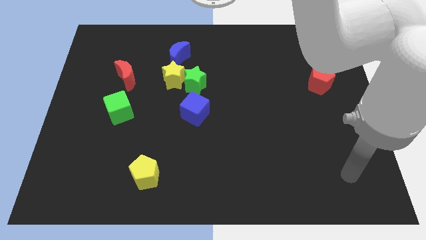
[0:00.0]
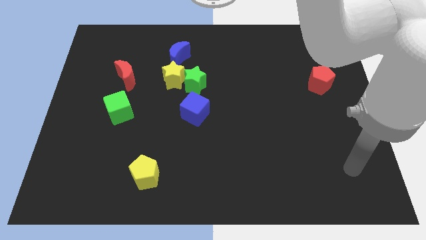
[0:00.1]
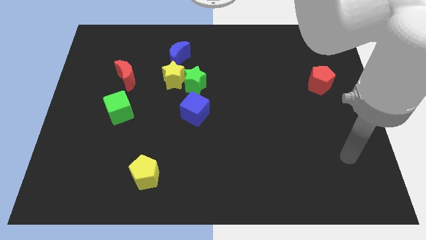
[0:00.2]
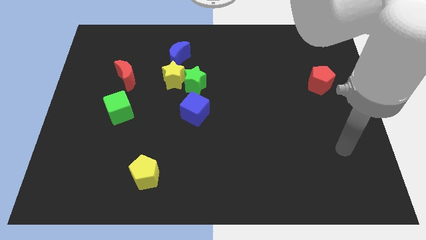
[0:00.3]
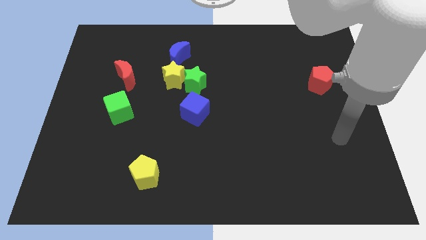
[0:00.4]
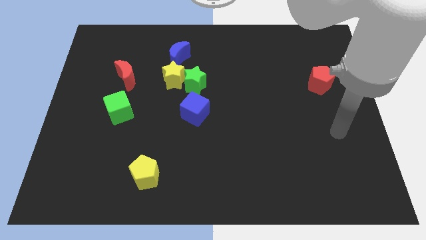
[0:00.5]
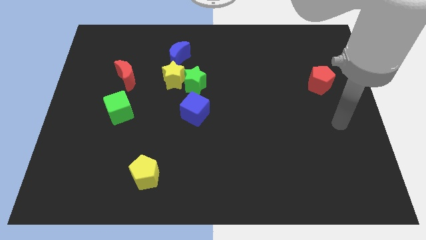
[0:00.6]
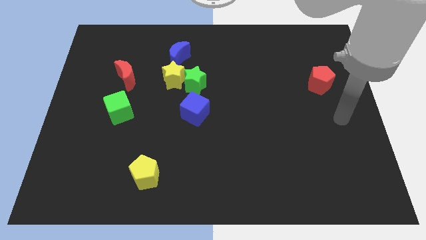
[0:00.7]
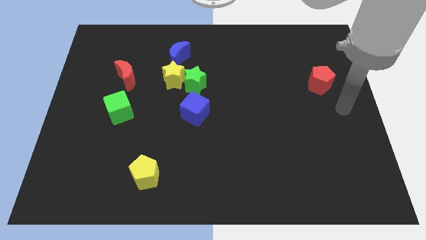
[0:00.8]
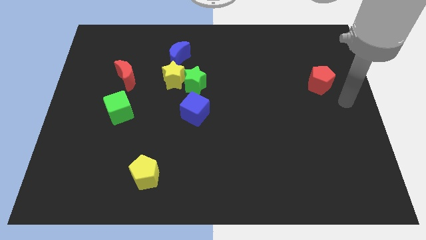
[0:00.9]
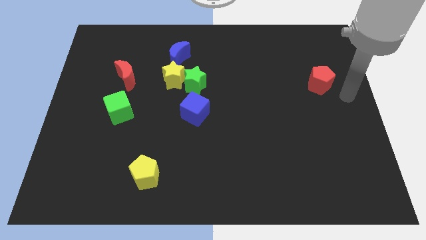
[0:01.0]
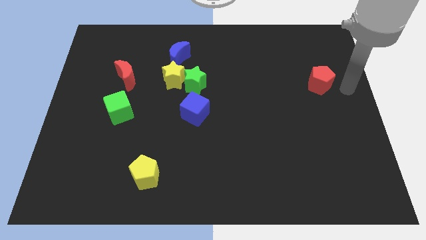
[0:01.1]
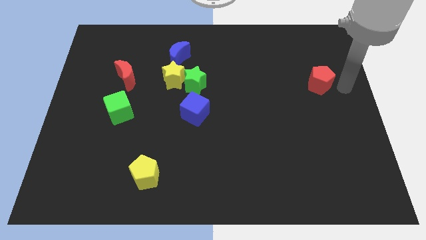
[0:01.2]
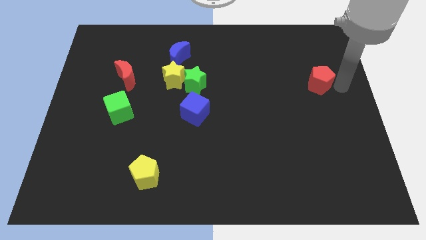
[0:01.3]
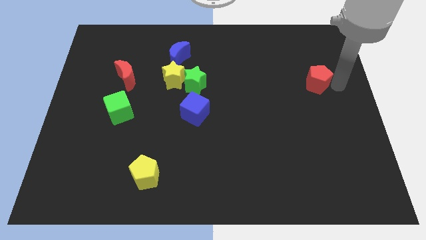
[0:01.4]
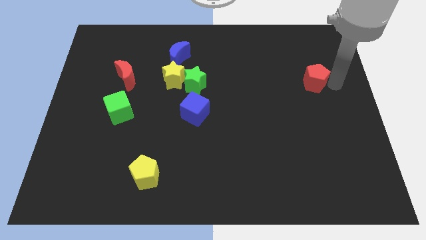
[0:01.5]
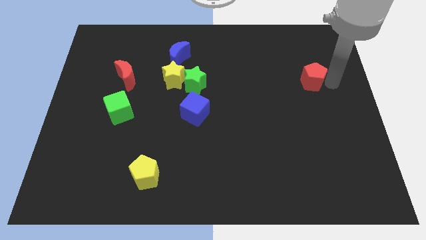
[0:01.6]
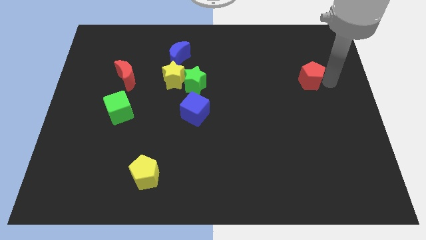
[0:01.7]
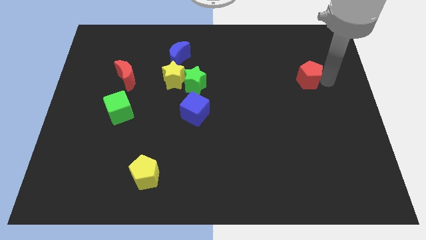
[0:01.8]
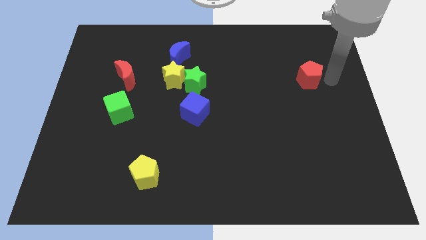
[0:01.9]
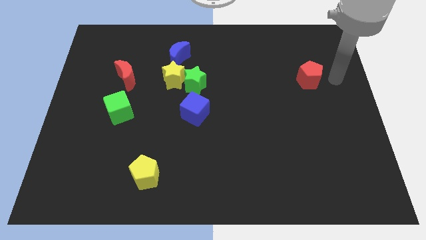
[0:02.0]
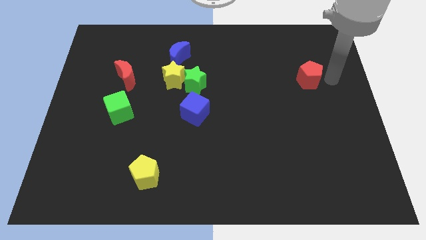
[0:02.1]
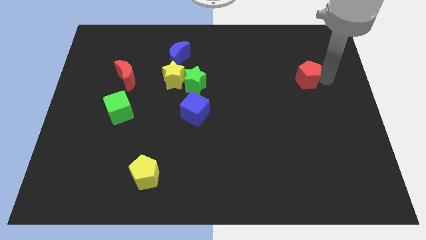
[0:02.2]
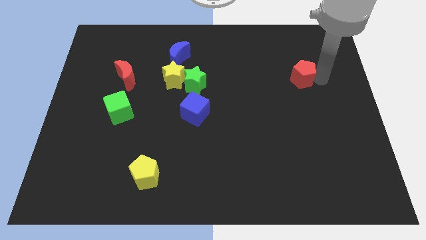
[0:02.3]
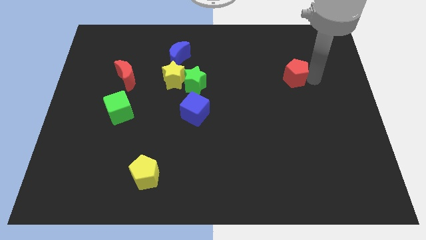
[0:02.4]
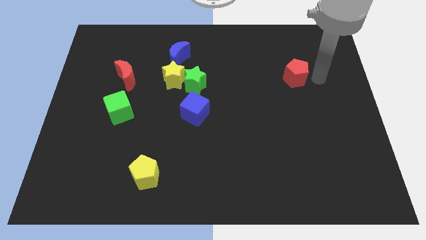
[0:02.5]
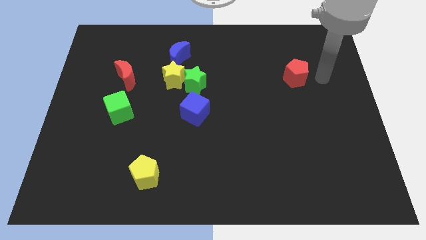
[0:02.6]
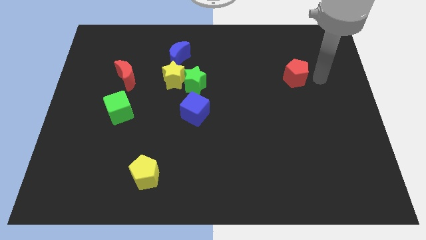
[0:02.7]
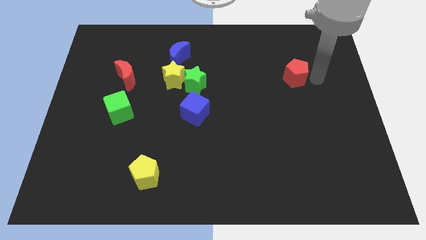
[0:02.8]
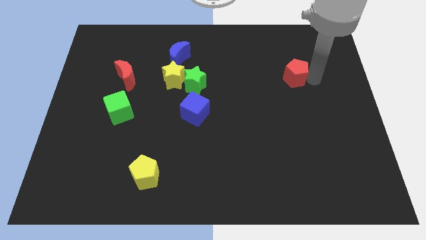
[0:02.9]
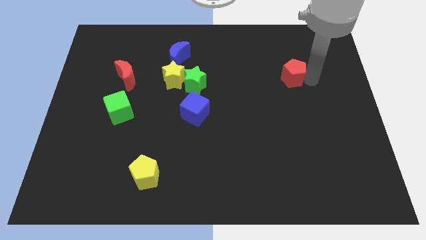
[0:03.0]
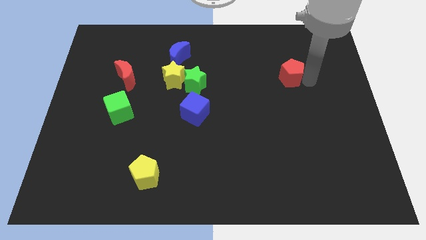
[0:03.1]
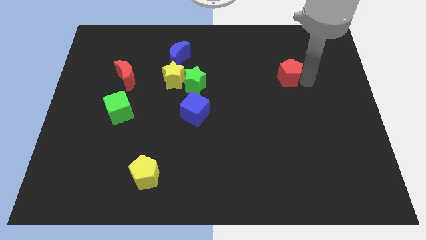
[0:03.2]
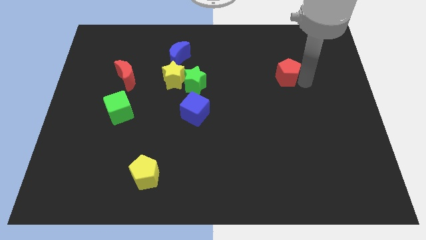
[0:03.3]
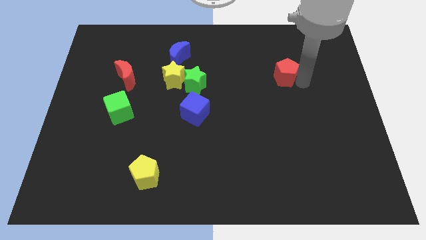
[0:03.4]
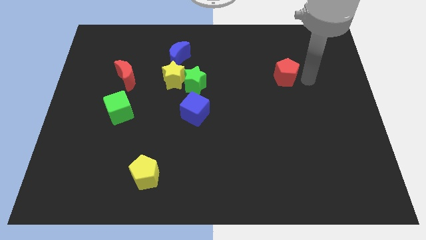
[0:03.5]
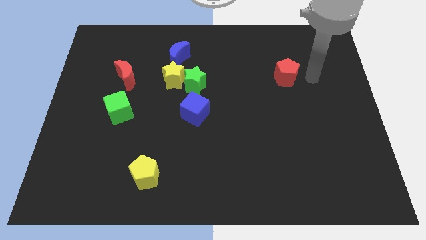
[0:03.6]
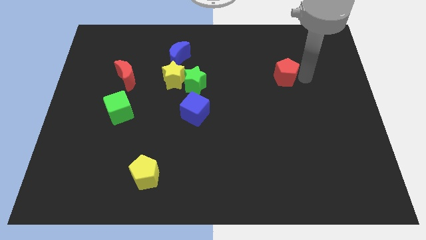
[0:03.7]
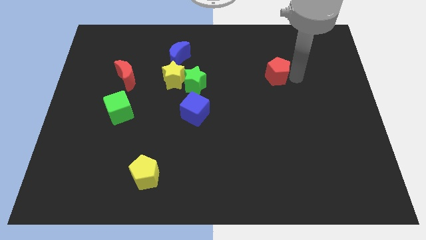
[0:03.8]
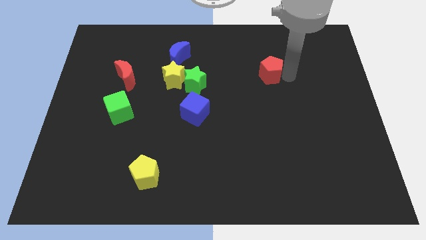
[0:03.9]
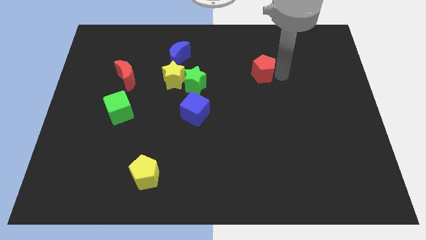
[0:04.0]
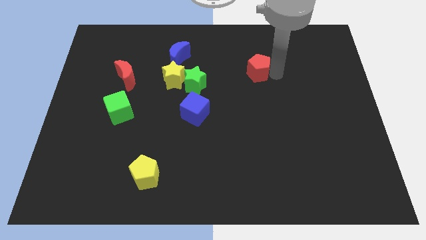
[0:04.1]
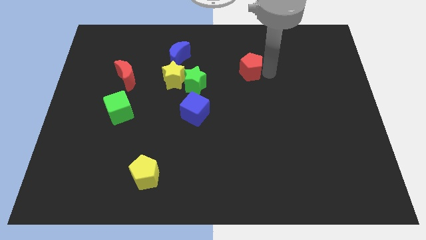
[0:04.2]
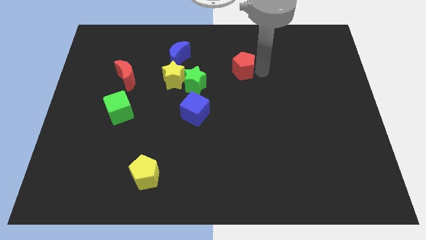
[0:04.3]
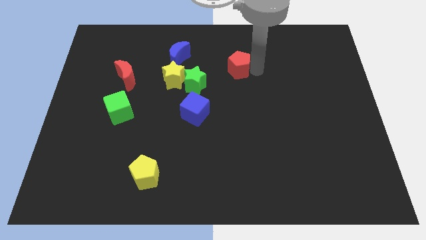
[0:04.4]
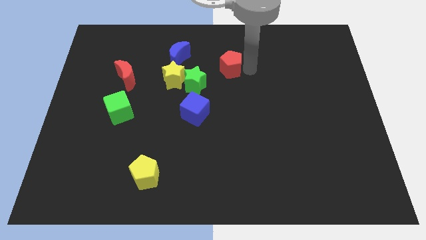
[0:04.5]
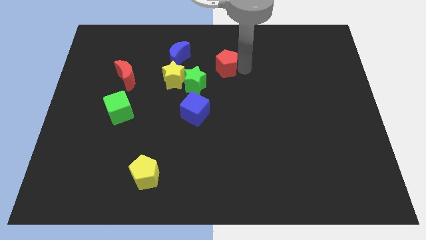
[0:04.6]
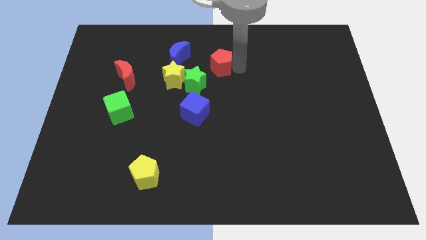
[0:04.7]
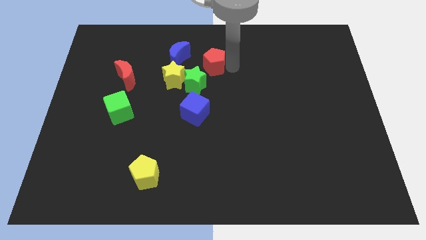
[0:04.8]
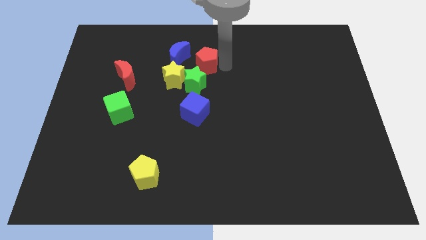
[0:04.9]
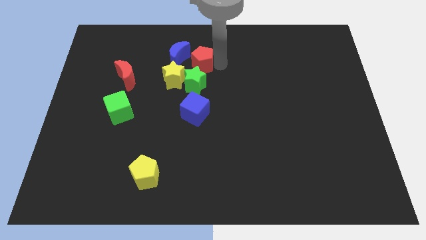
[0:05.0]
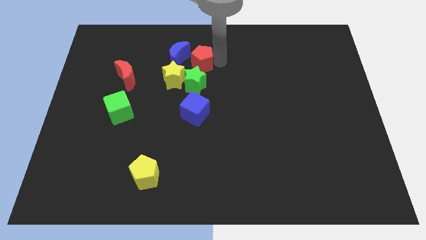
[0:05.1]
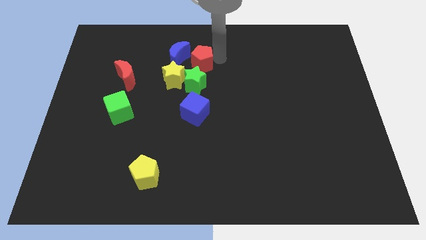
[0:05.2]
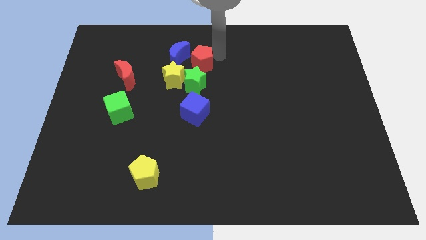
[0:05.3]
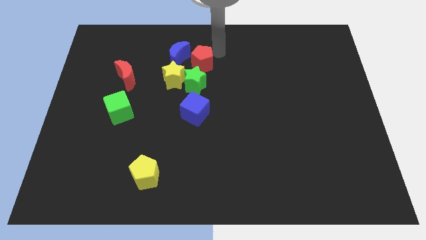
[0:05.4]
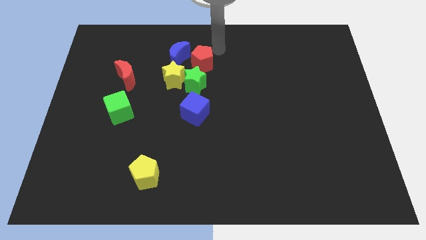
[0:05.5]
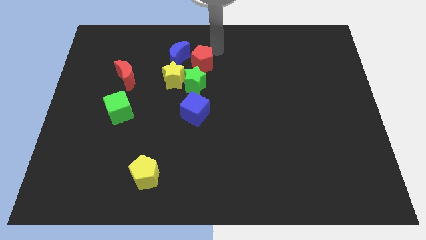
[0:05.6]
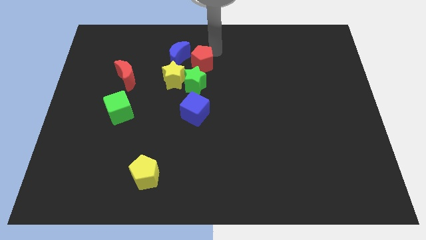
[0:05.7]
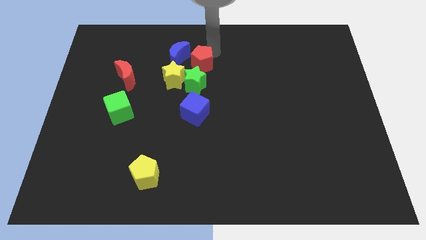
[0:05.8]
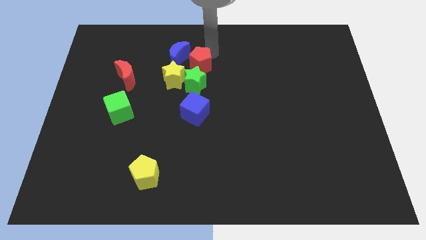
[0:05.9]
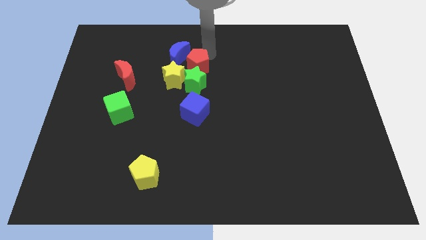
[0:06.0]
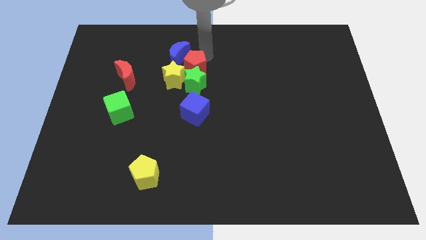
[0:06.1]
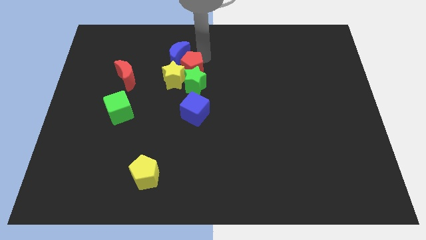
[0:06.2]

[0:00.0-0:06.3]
push the red pentagon to the yellow star
